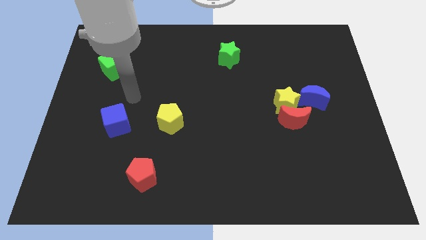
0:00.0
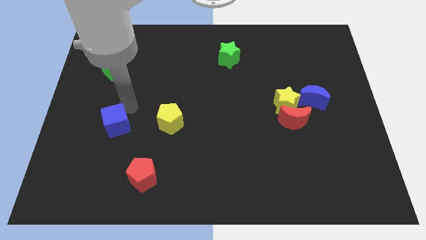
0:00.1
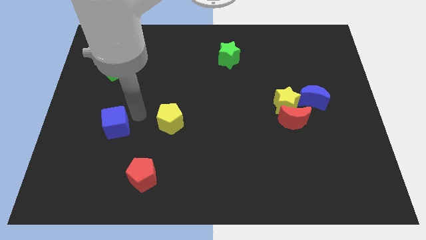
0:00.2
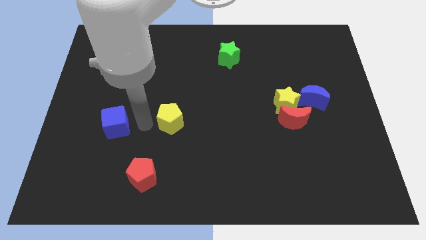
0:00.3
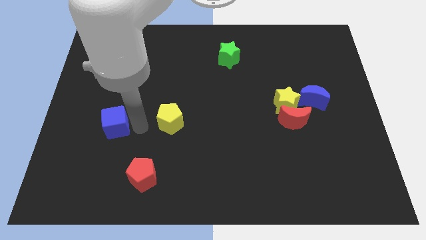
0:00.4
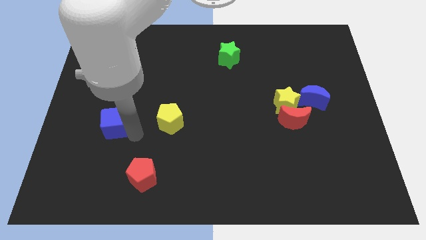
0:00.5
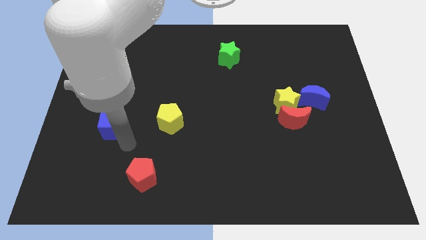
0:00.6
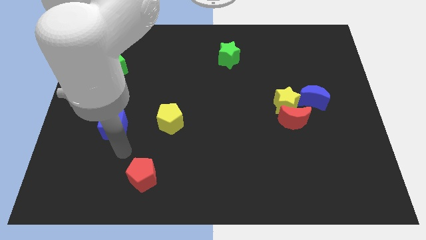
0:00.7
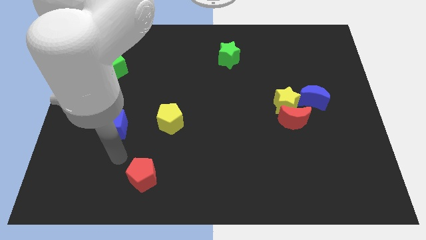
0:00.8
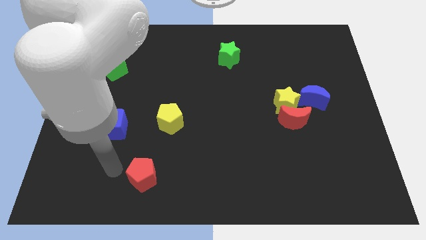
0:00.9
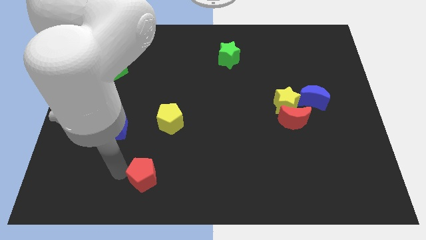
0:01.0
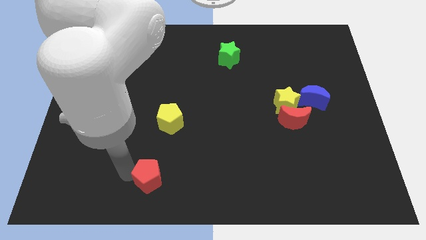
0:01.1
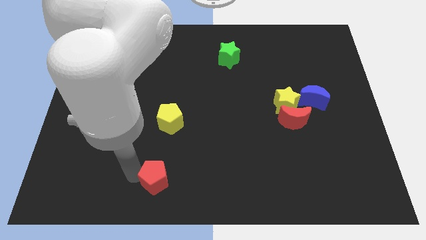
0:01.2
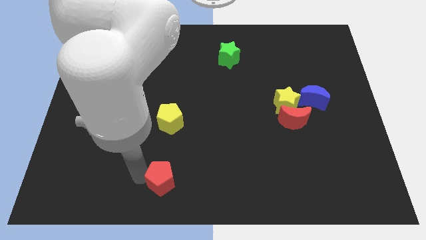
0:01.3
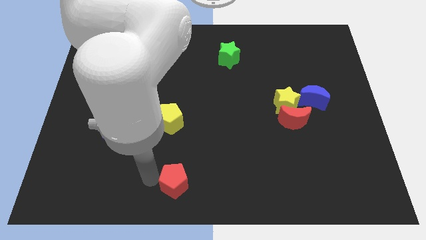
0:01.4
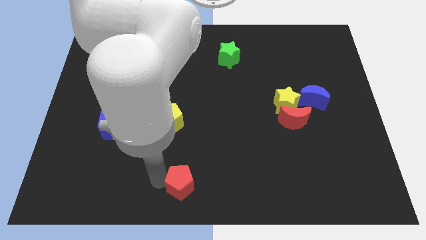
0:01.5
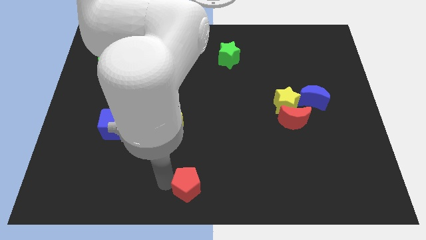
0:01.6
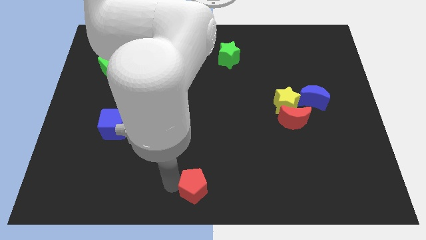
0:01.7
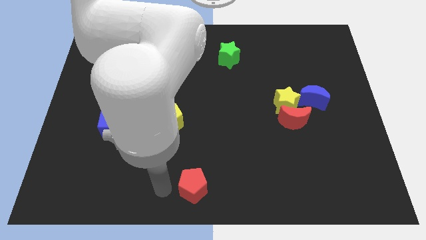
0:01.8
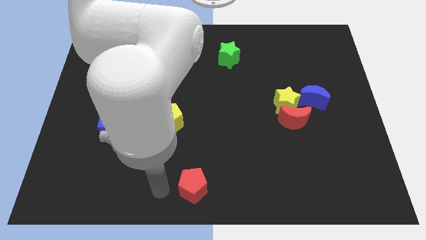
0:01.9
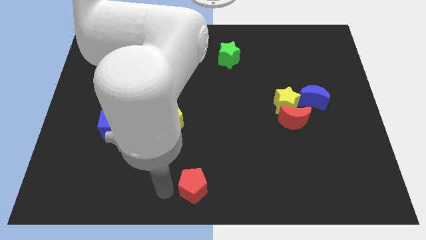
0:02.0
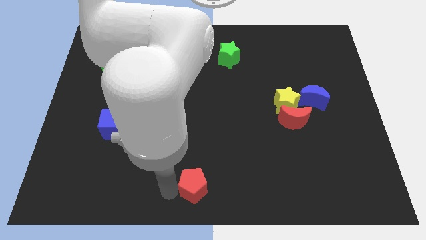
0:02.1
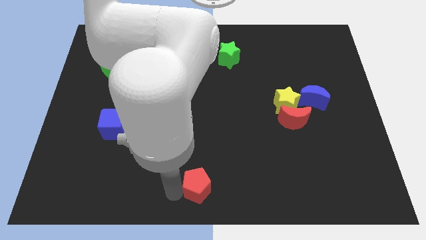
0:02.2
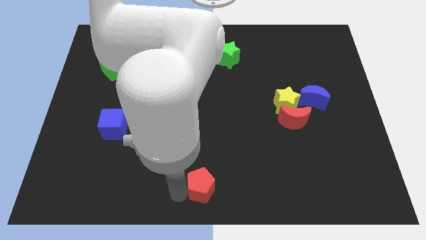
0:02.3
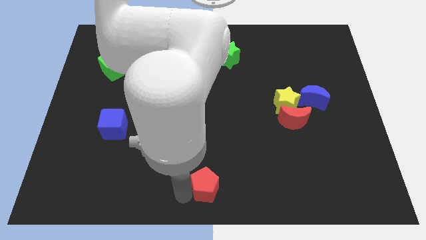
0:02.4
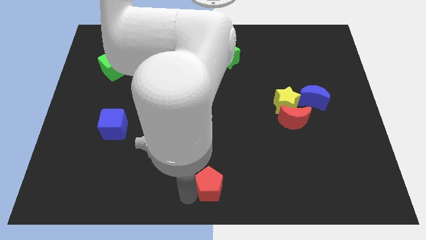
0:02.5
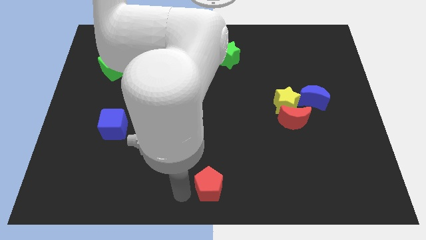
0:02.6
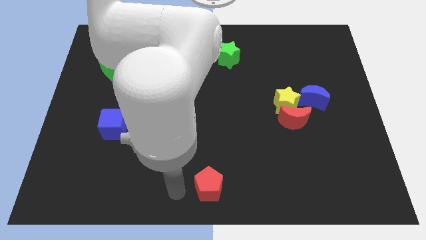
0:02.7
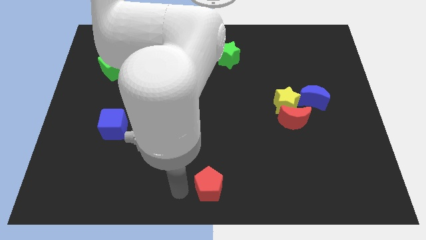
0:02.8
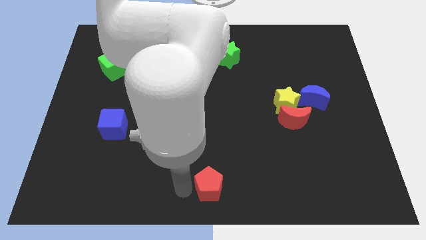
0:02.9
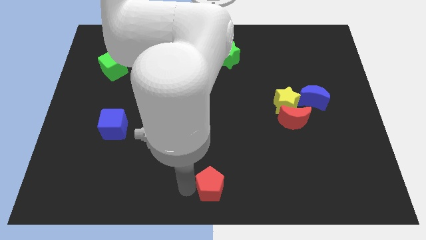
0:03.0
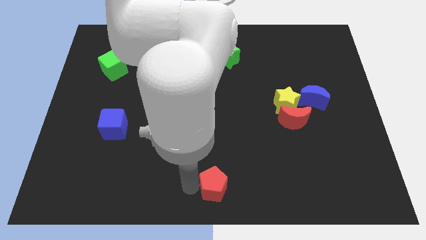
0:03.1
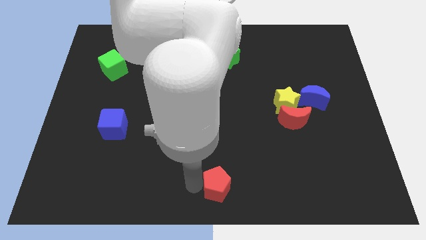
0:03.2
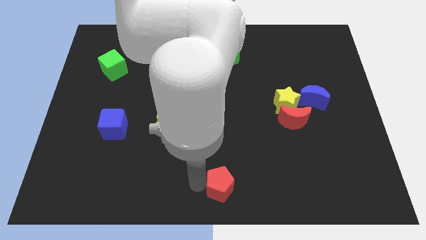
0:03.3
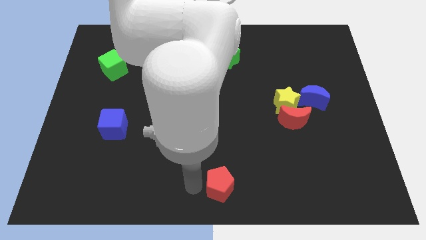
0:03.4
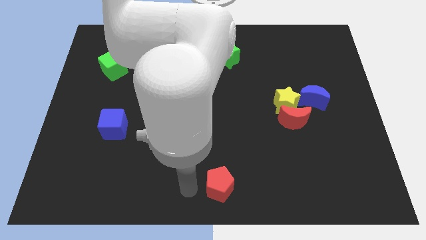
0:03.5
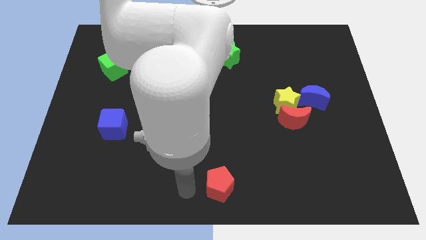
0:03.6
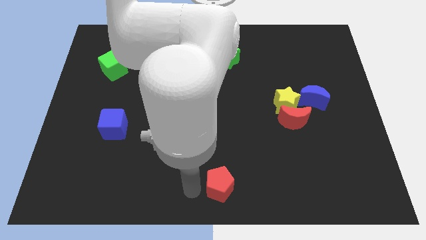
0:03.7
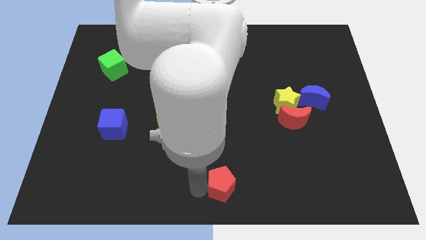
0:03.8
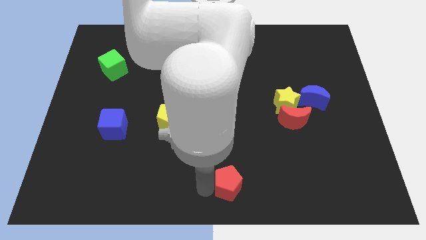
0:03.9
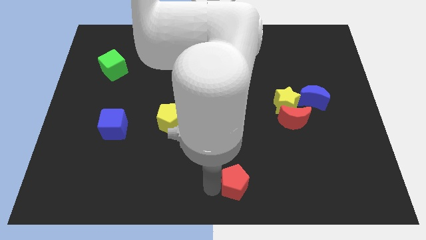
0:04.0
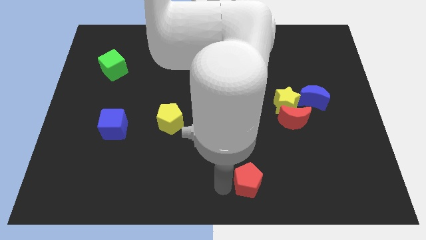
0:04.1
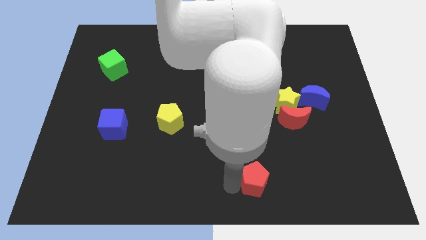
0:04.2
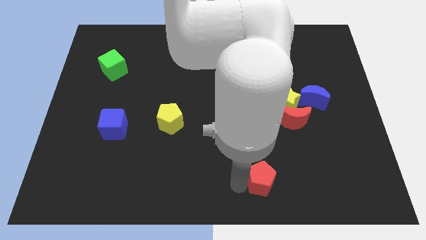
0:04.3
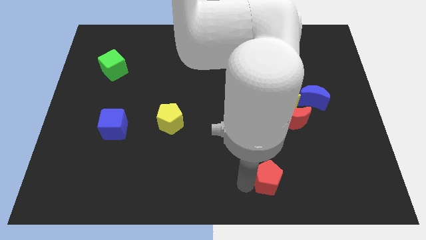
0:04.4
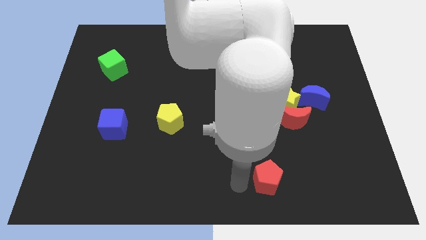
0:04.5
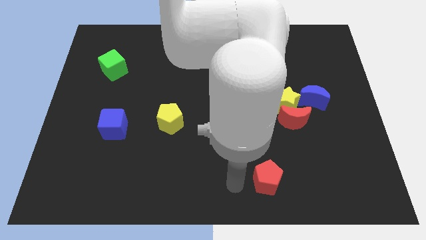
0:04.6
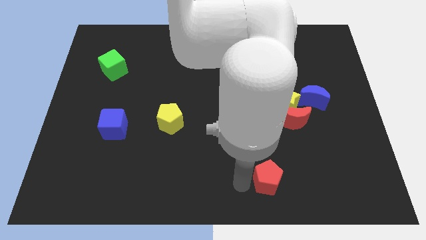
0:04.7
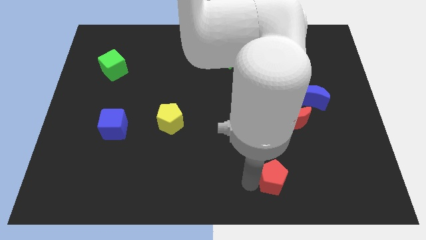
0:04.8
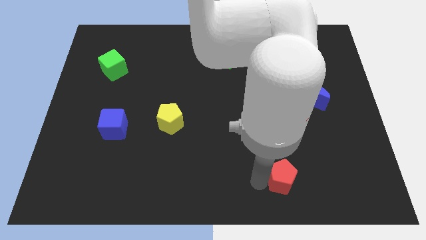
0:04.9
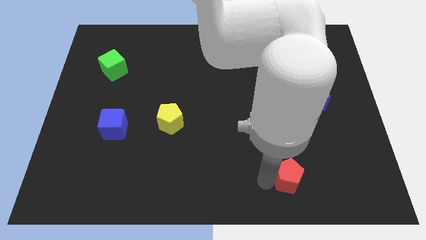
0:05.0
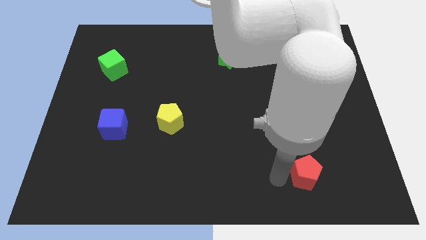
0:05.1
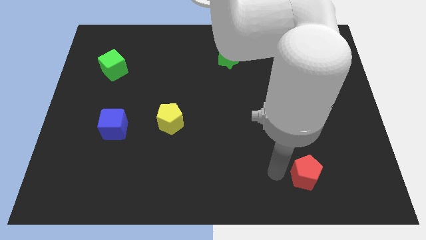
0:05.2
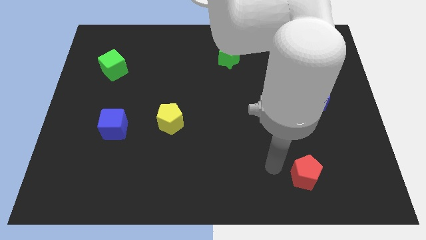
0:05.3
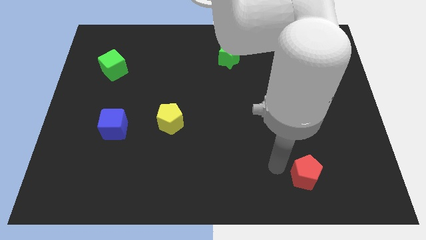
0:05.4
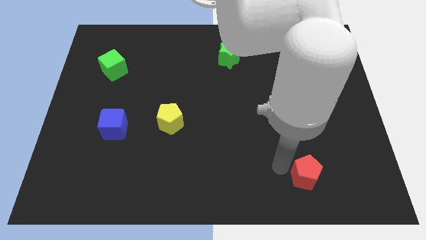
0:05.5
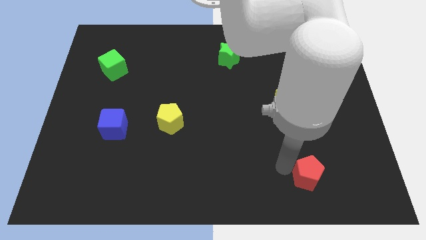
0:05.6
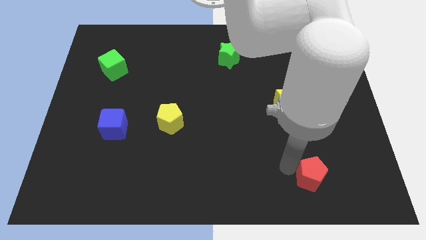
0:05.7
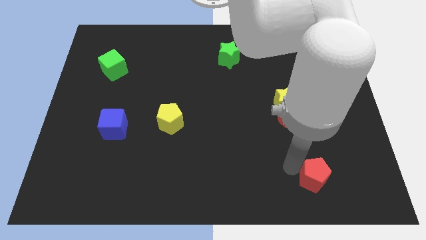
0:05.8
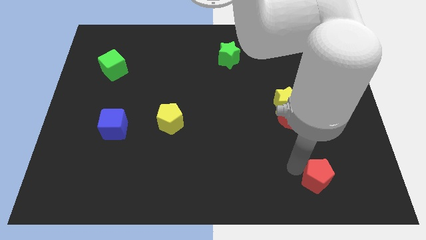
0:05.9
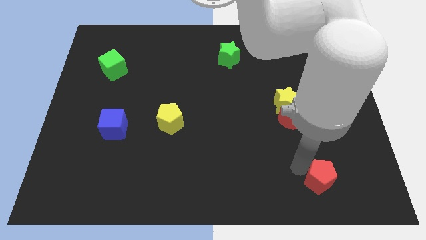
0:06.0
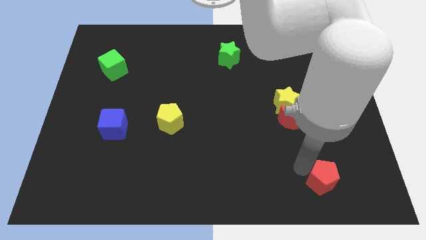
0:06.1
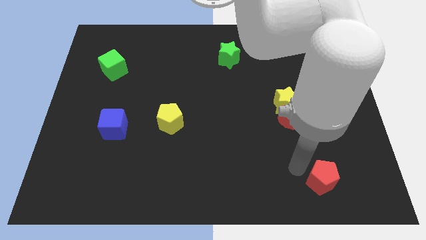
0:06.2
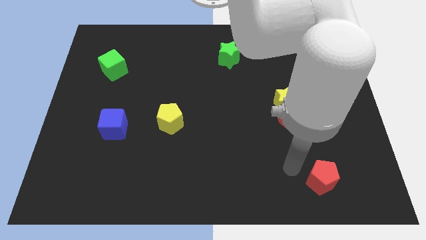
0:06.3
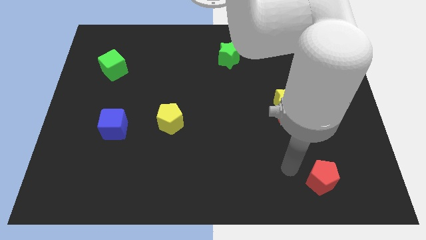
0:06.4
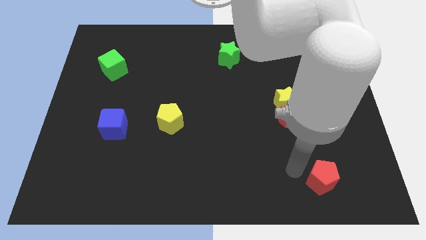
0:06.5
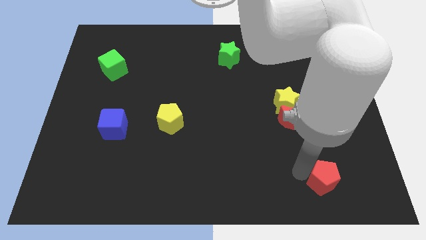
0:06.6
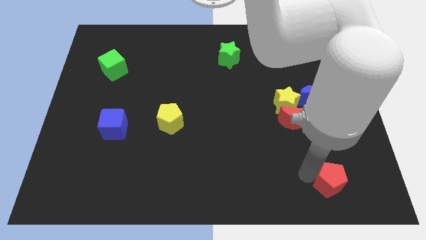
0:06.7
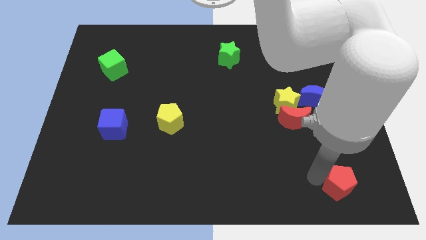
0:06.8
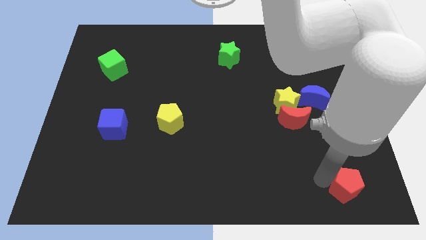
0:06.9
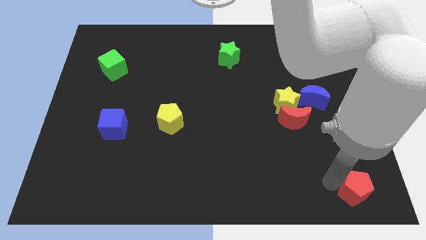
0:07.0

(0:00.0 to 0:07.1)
slide the red pentagon to the bottom right corner

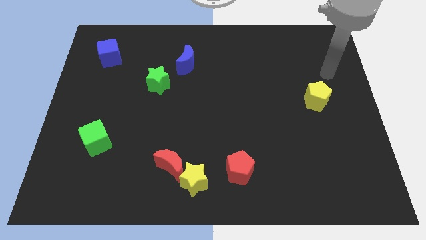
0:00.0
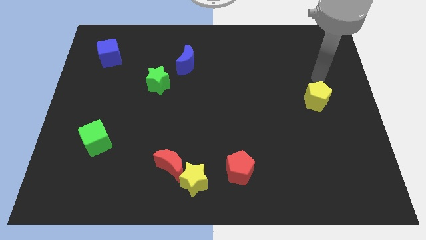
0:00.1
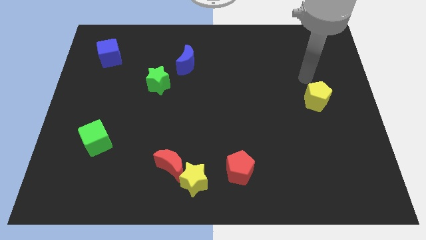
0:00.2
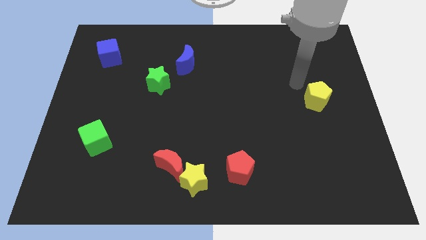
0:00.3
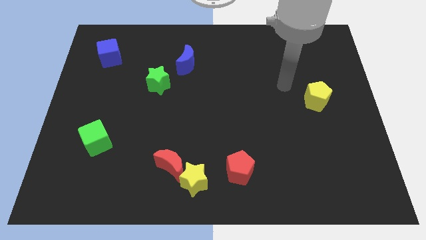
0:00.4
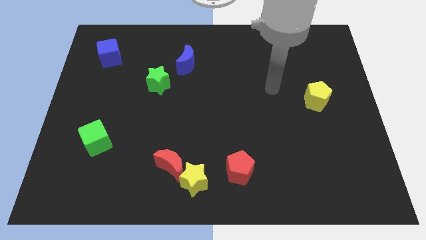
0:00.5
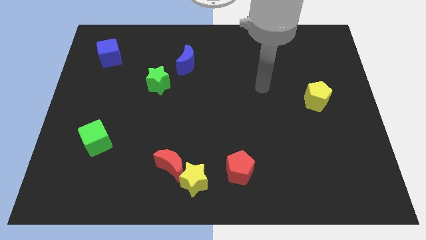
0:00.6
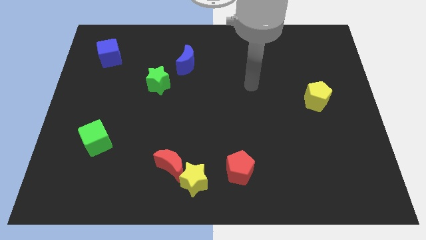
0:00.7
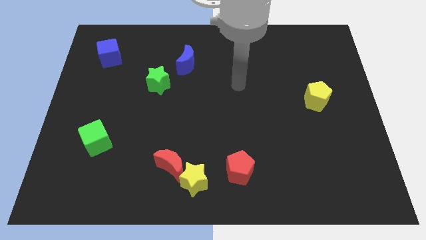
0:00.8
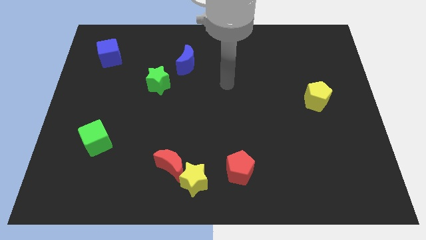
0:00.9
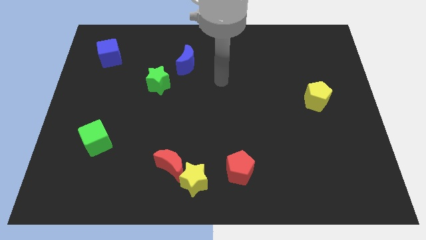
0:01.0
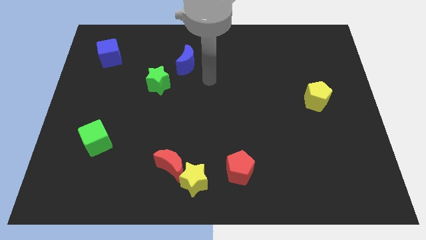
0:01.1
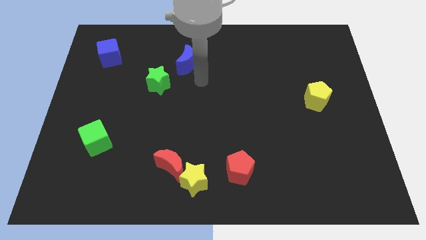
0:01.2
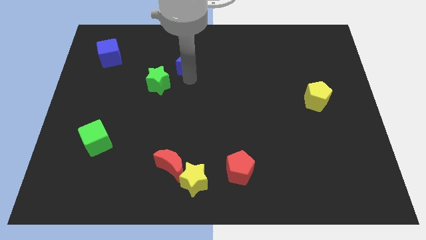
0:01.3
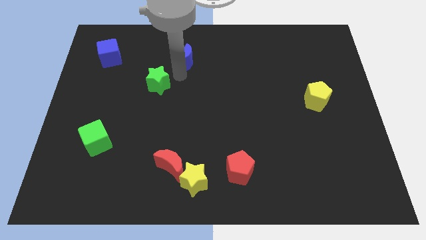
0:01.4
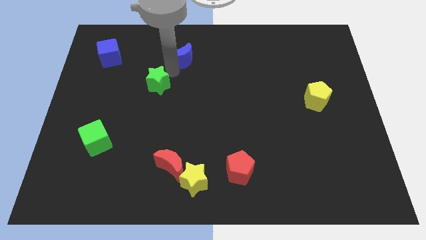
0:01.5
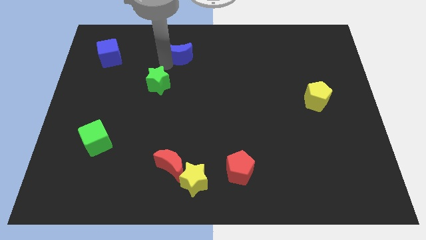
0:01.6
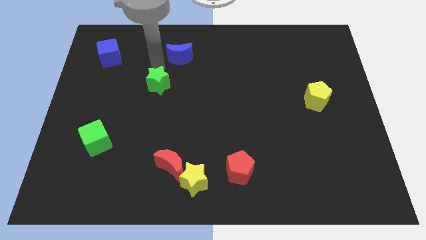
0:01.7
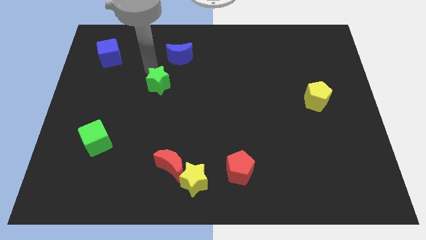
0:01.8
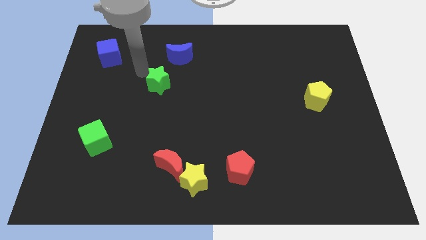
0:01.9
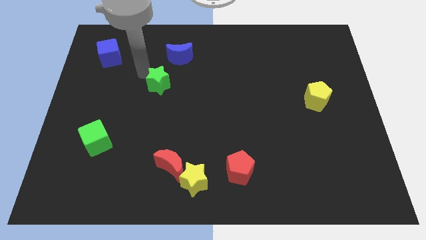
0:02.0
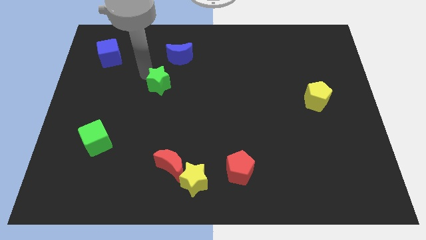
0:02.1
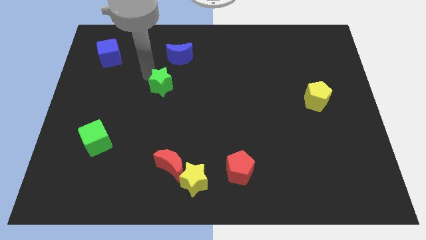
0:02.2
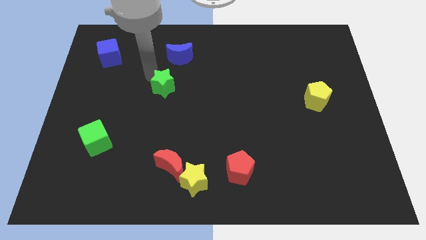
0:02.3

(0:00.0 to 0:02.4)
slide the green star to the center of the board
